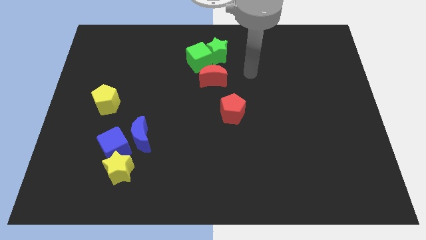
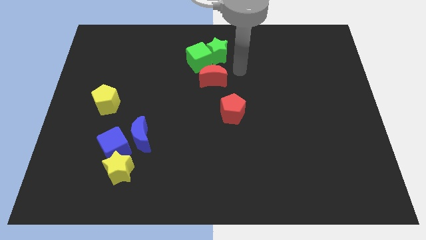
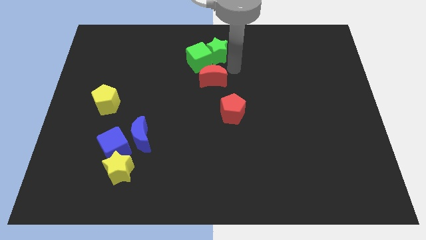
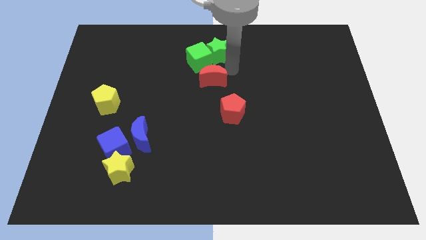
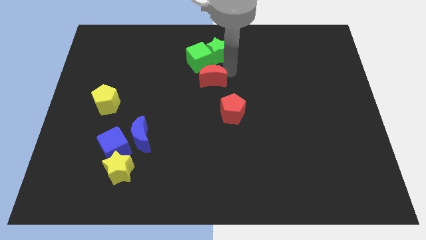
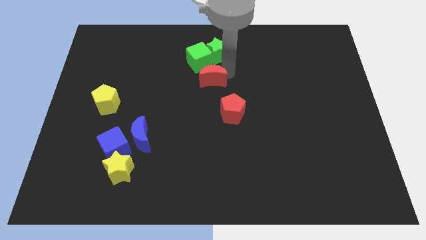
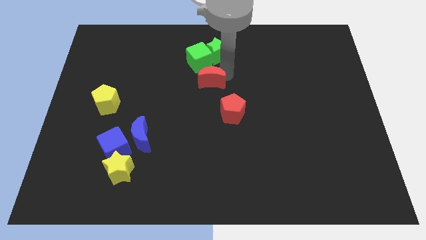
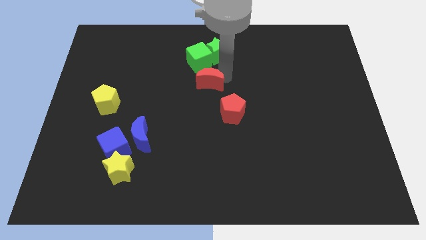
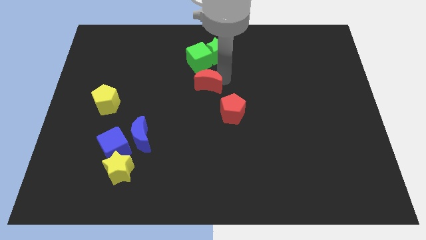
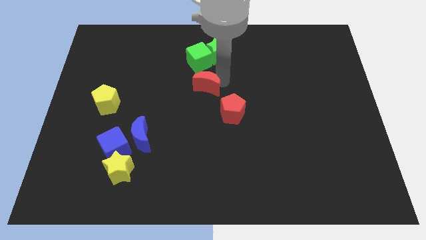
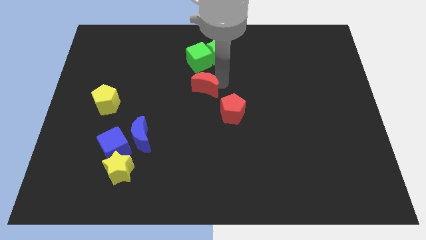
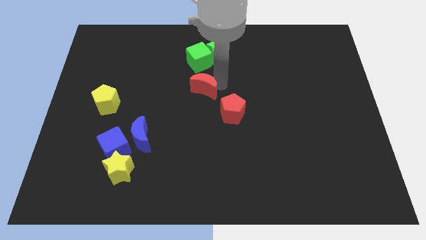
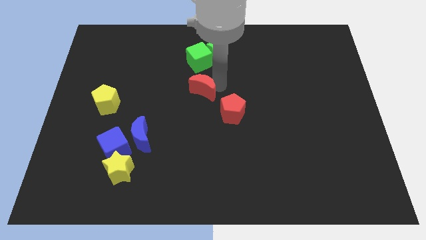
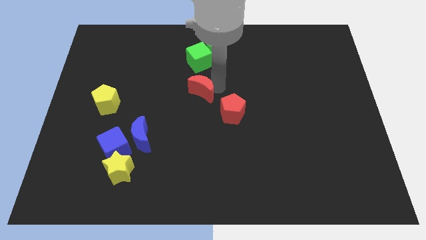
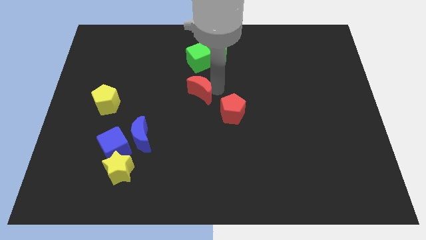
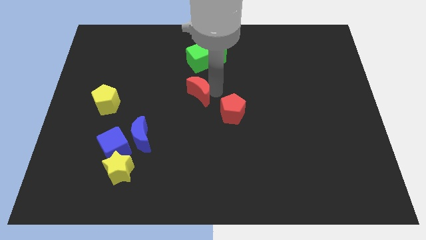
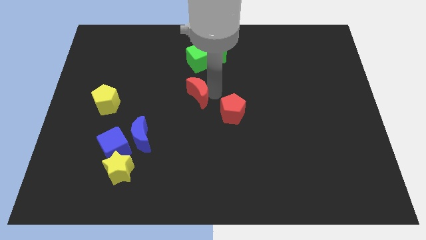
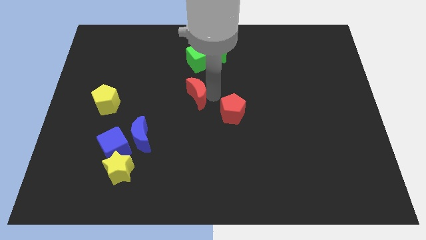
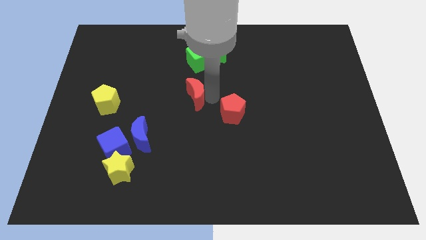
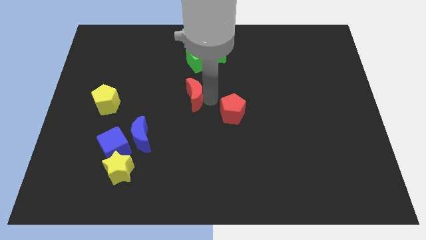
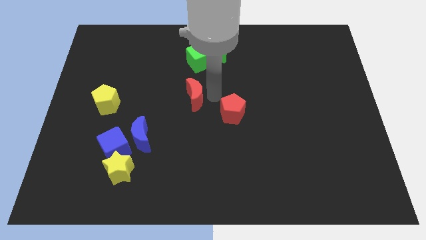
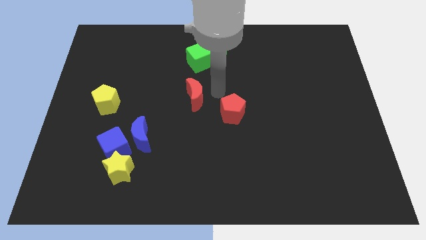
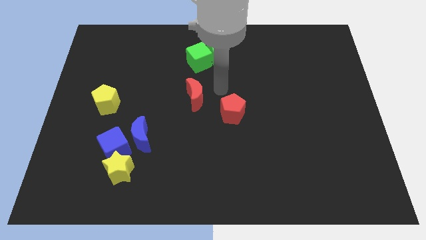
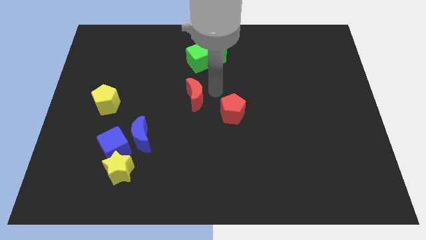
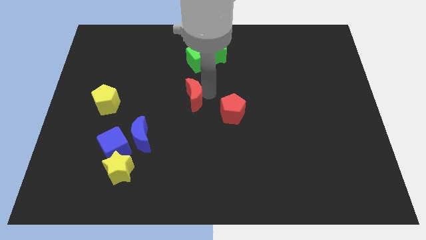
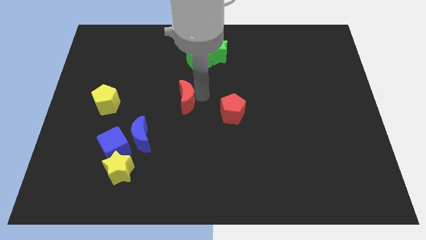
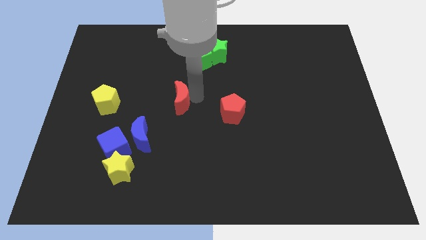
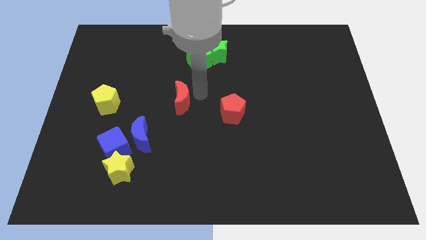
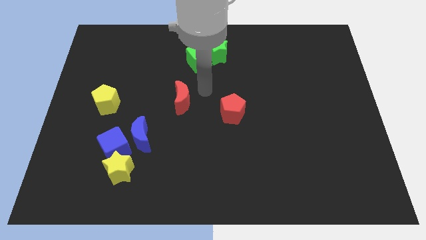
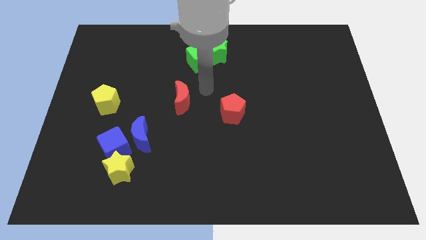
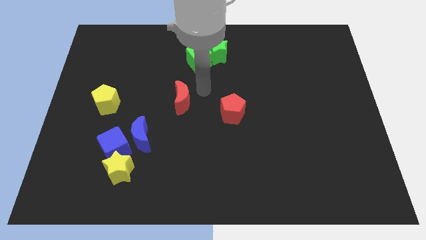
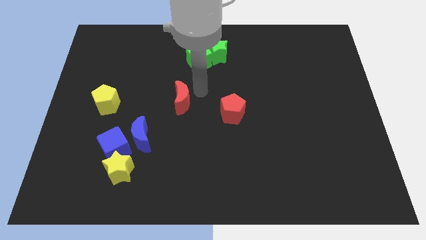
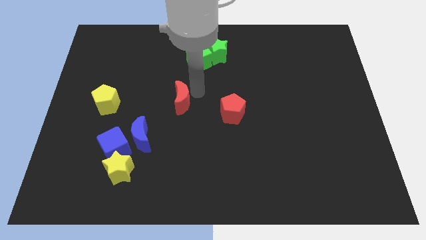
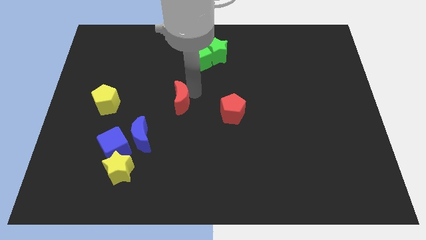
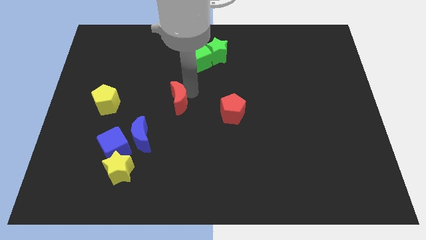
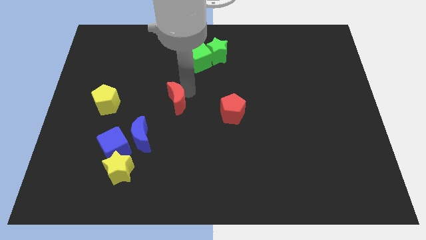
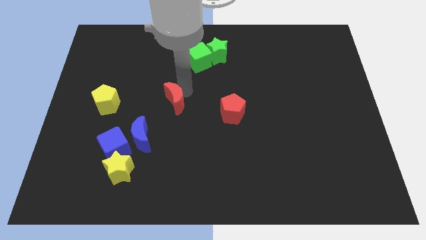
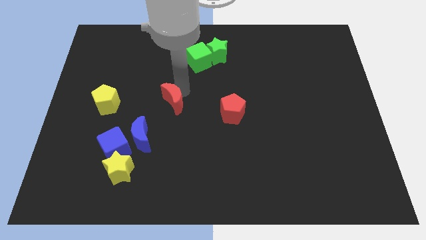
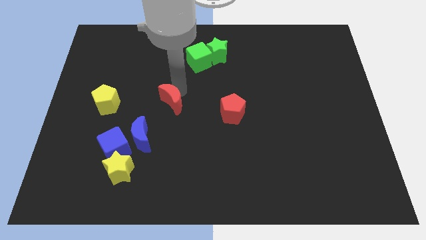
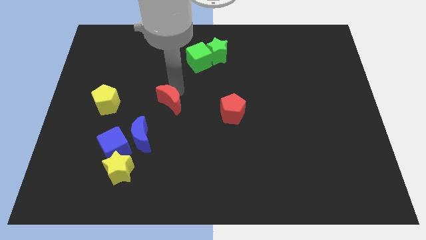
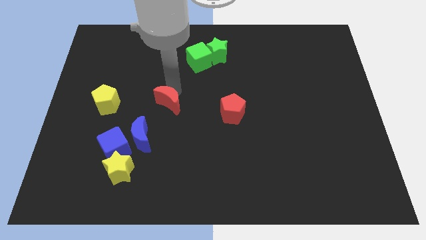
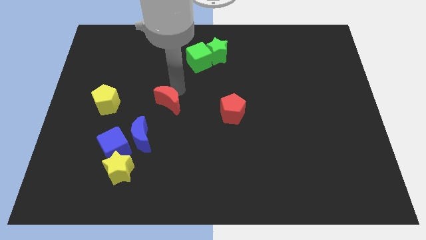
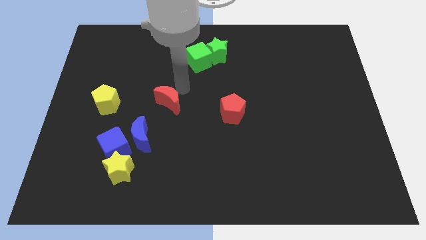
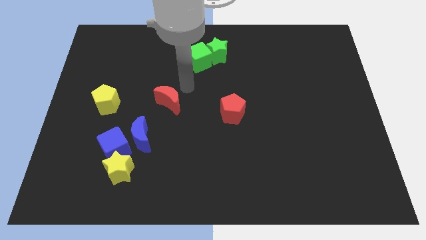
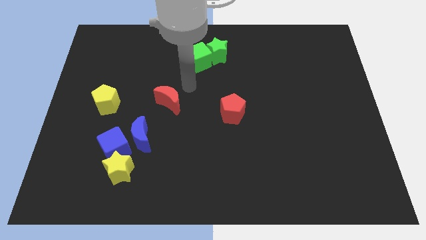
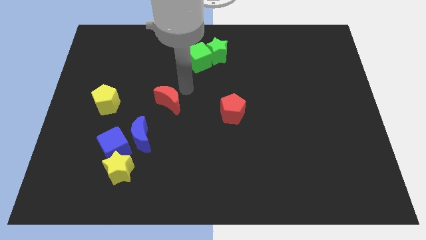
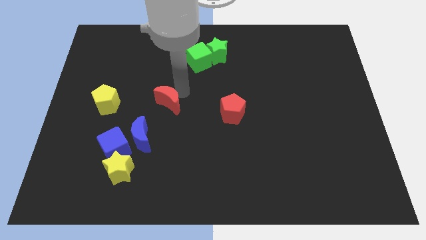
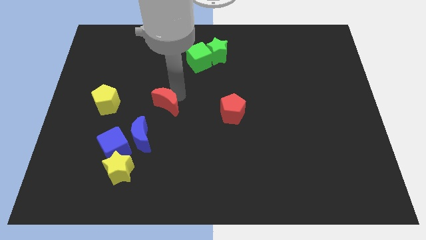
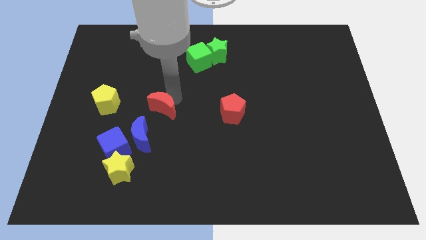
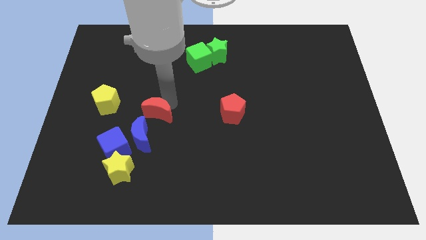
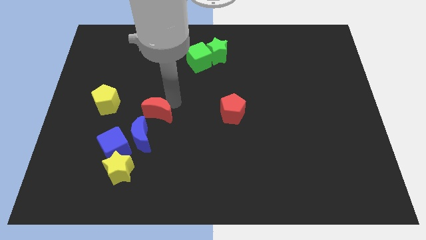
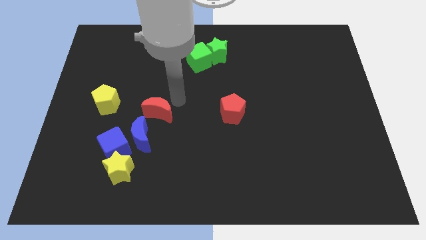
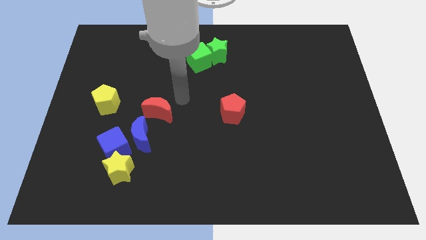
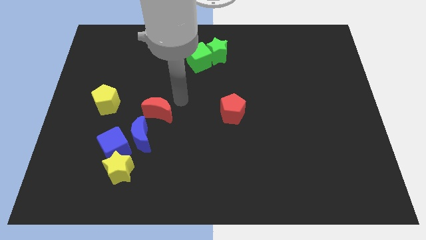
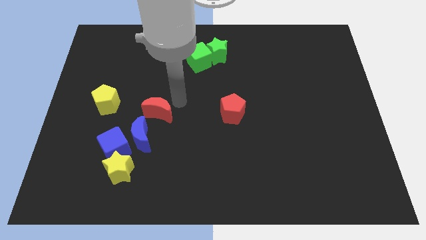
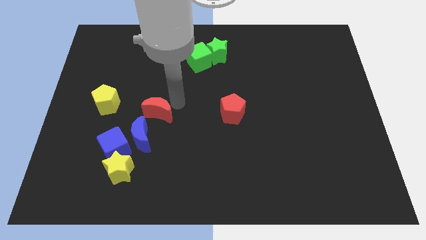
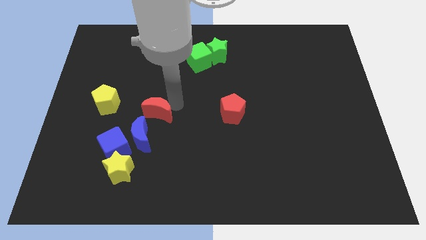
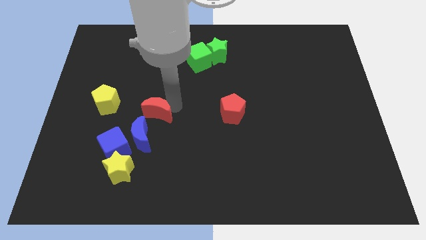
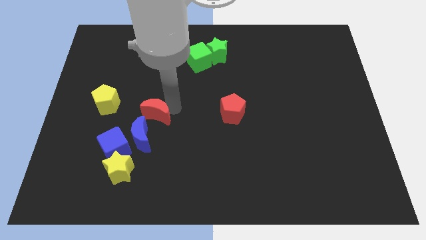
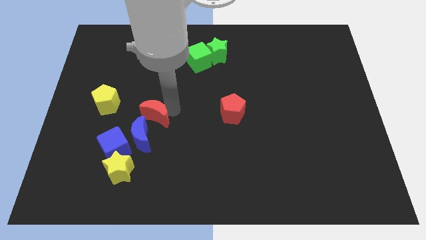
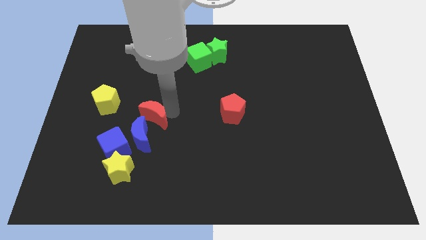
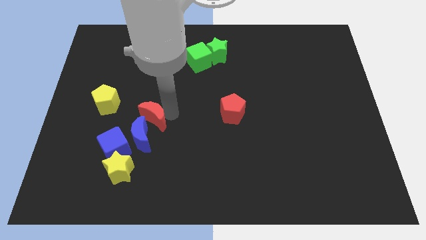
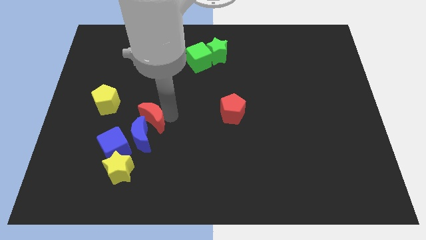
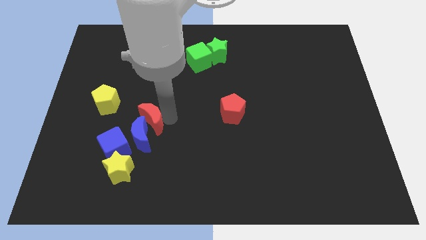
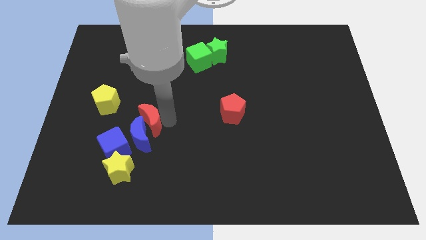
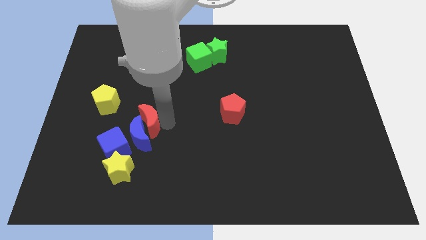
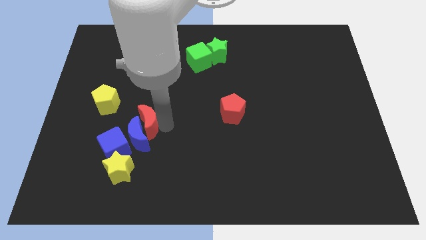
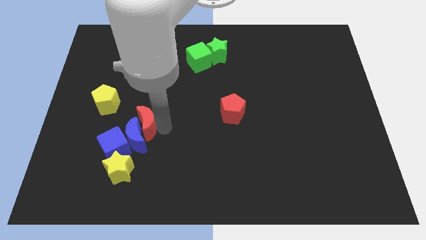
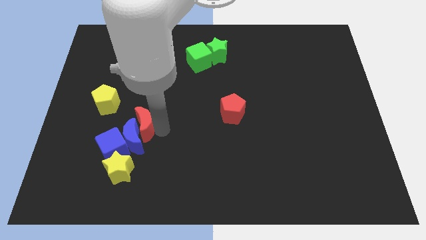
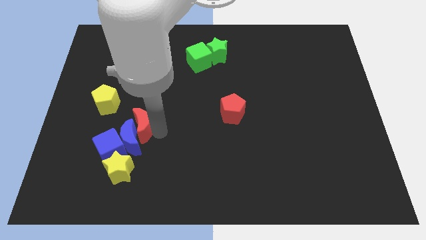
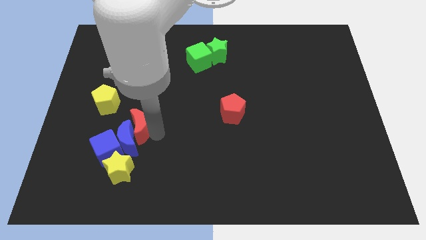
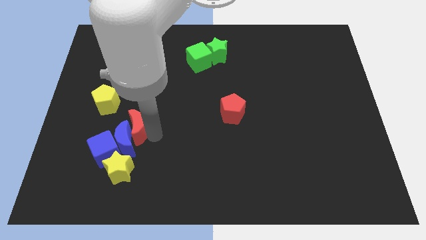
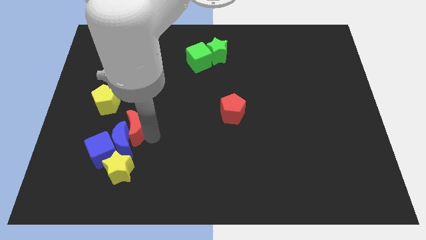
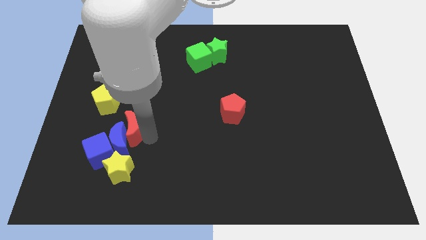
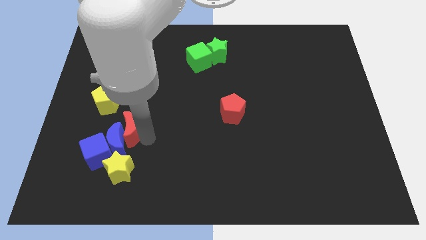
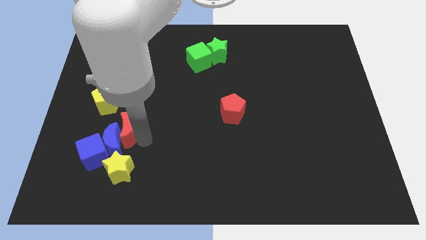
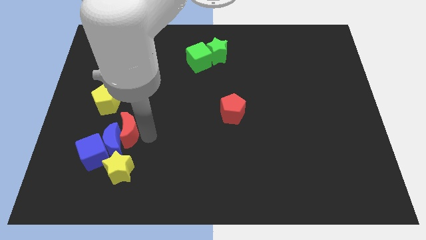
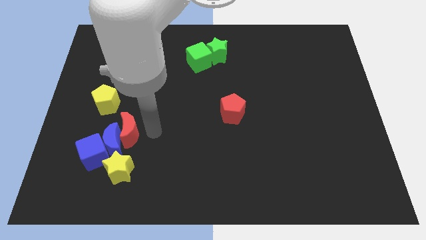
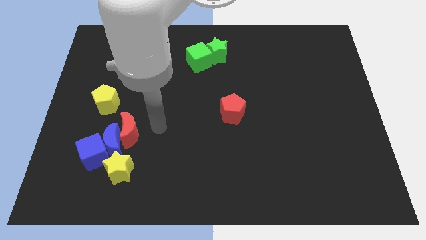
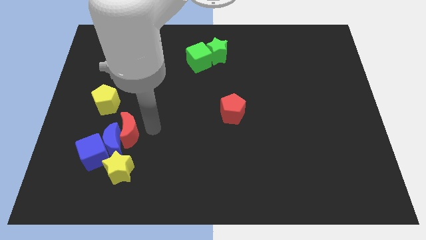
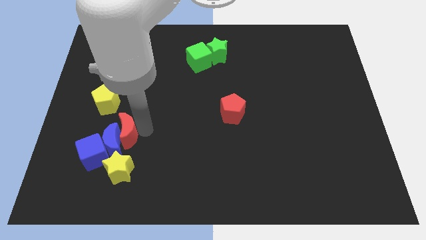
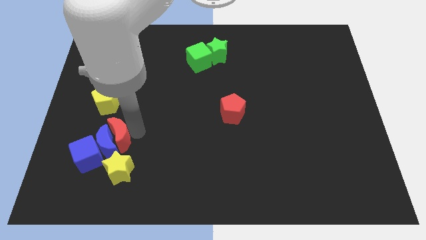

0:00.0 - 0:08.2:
push the red moon to the bottom of the yellow pentagon
